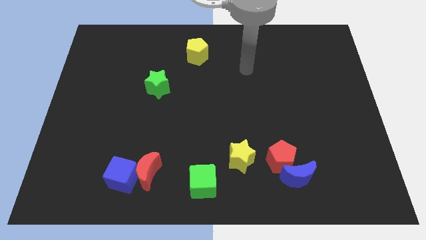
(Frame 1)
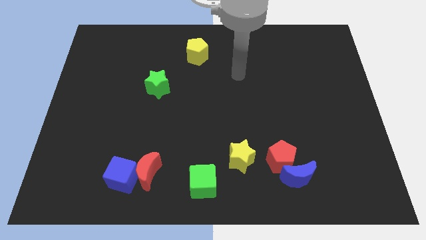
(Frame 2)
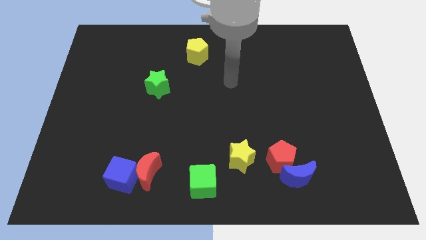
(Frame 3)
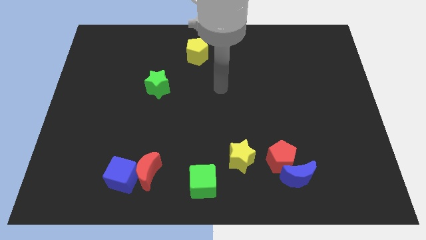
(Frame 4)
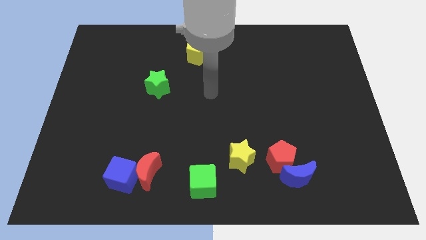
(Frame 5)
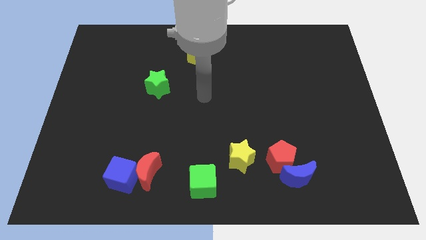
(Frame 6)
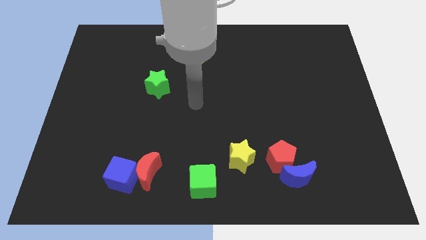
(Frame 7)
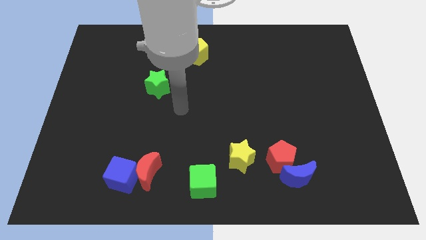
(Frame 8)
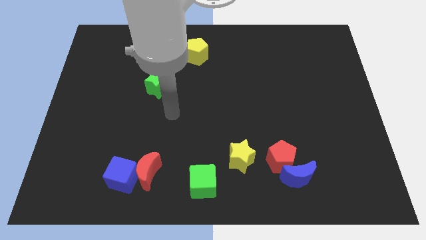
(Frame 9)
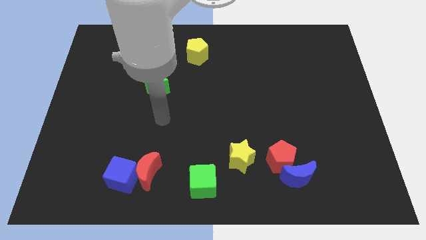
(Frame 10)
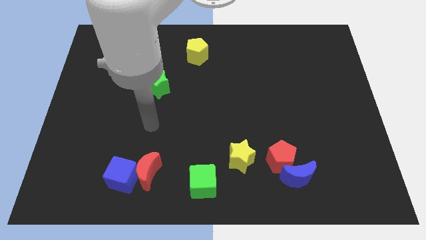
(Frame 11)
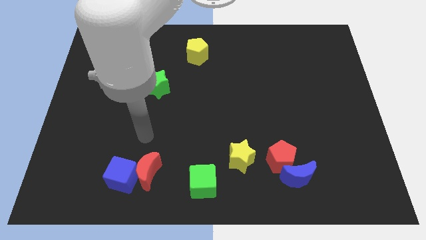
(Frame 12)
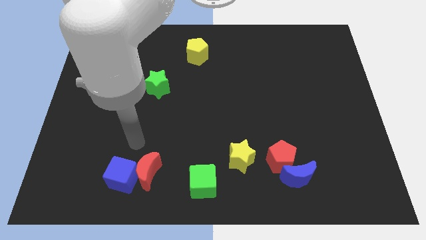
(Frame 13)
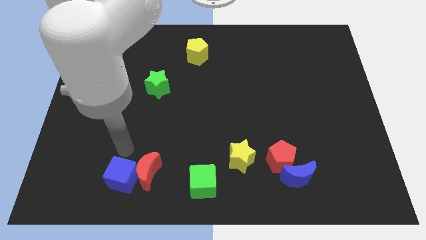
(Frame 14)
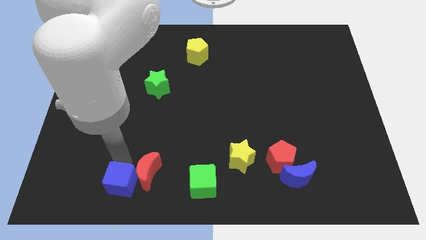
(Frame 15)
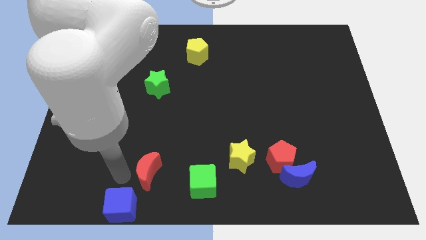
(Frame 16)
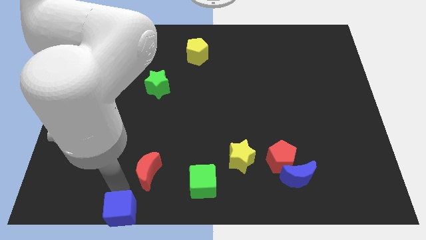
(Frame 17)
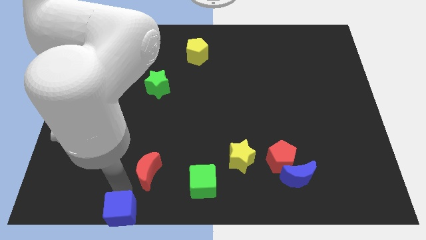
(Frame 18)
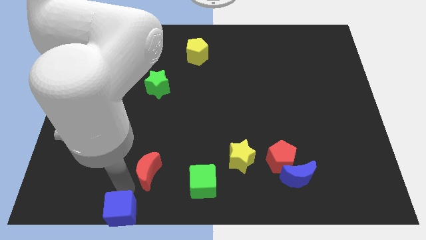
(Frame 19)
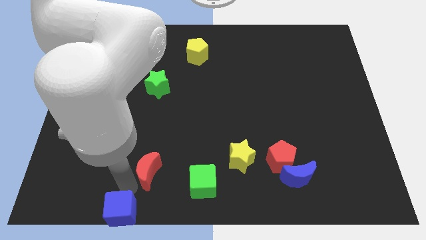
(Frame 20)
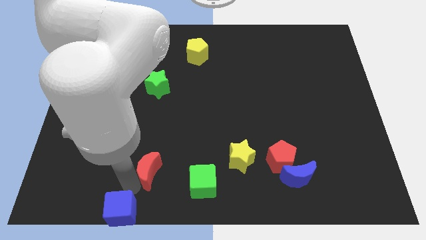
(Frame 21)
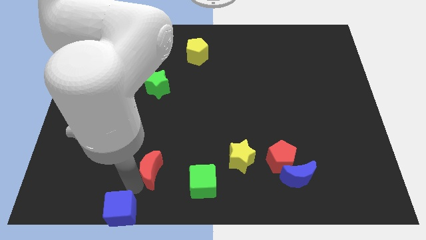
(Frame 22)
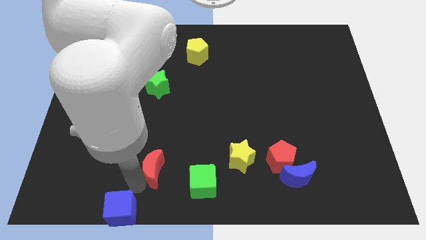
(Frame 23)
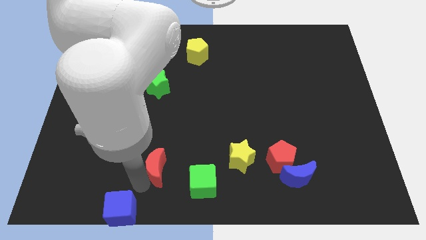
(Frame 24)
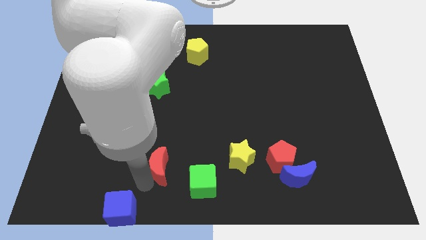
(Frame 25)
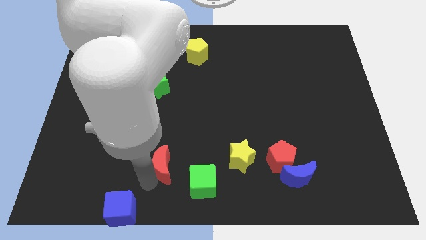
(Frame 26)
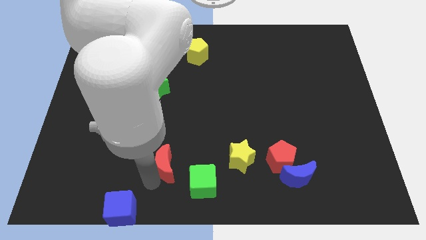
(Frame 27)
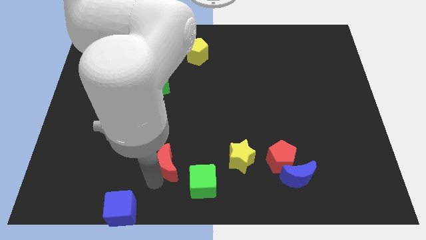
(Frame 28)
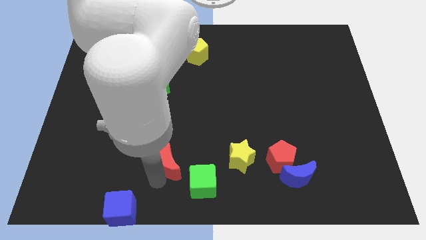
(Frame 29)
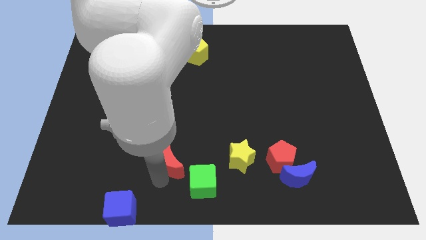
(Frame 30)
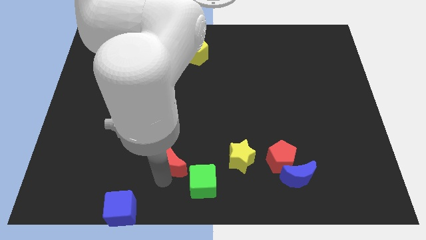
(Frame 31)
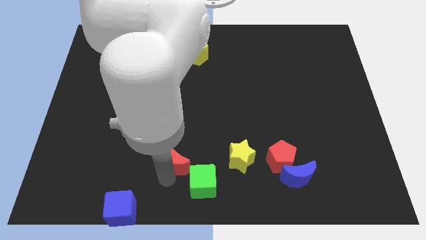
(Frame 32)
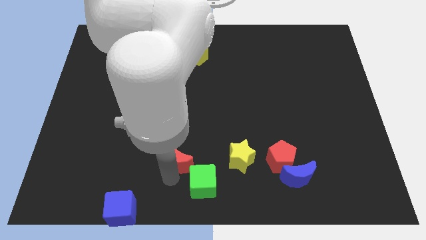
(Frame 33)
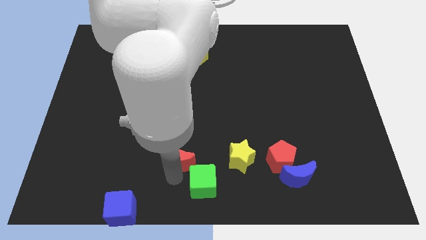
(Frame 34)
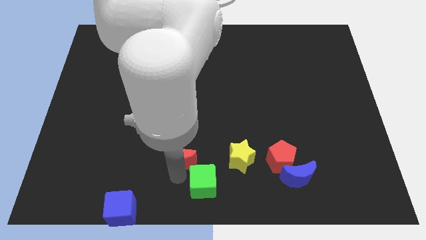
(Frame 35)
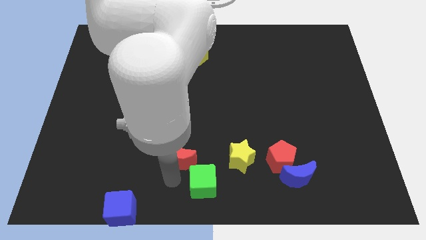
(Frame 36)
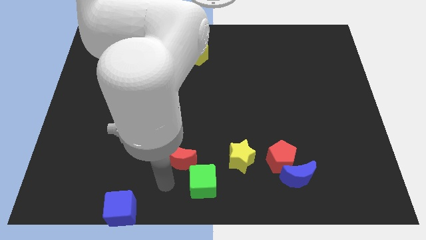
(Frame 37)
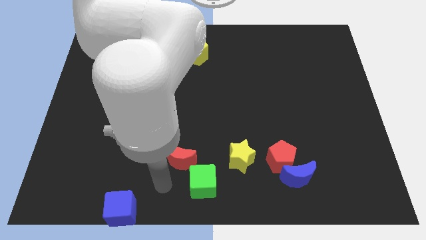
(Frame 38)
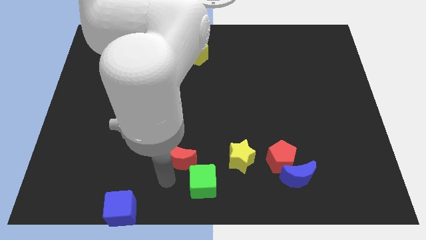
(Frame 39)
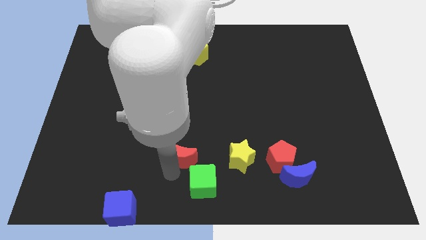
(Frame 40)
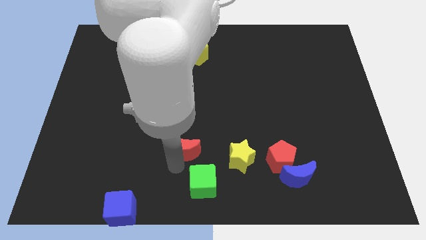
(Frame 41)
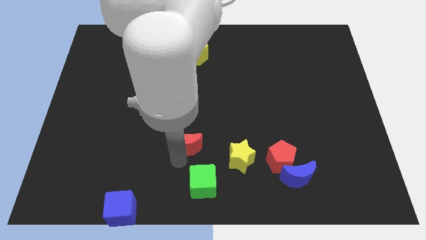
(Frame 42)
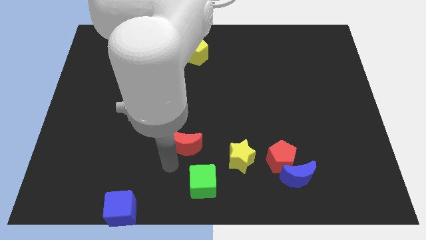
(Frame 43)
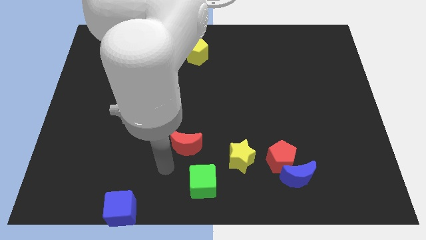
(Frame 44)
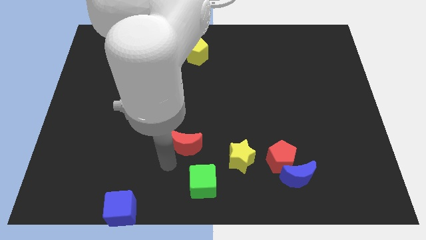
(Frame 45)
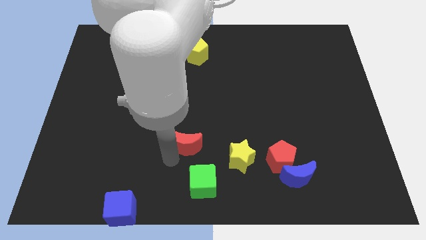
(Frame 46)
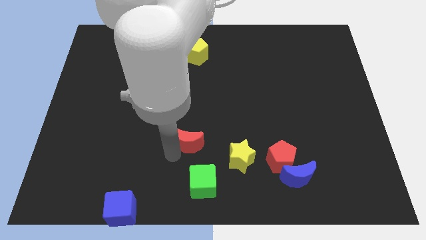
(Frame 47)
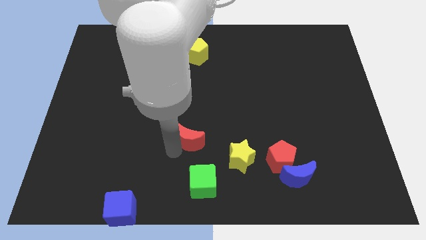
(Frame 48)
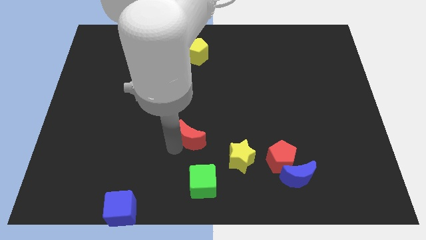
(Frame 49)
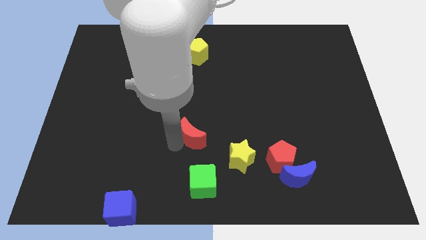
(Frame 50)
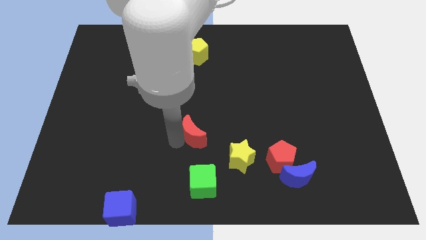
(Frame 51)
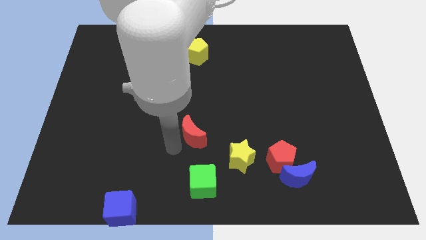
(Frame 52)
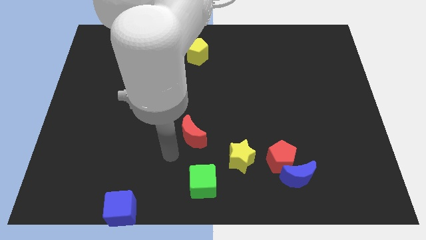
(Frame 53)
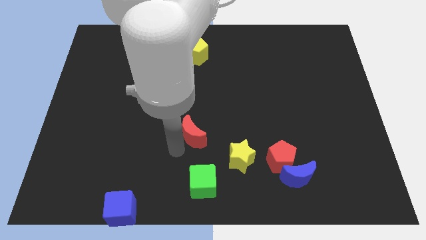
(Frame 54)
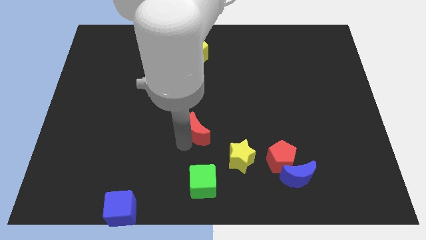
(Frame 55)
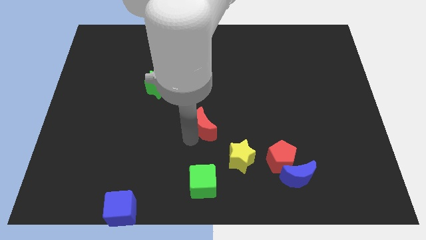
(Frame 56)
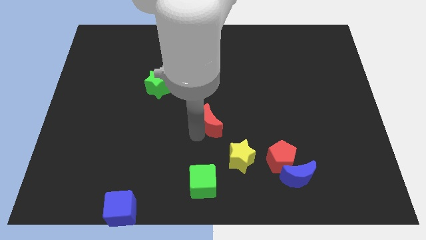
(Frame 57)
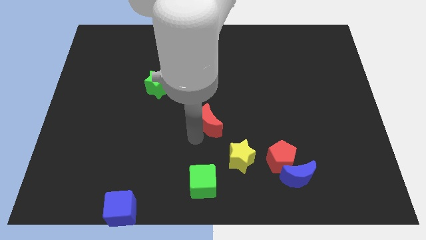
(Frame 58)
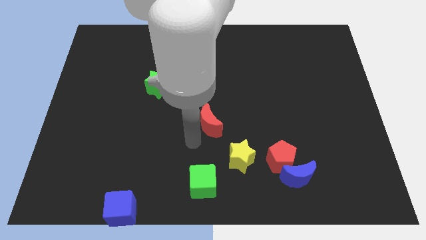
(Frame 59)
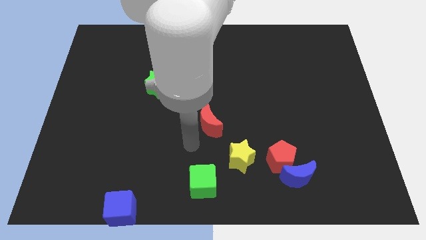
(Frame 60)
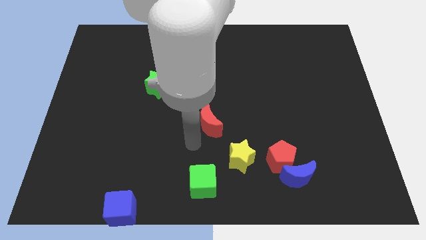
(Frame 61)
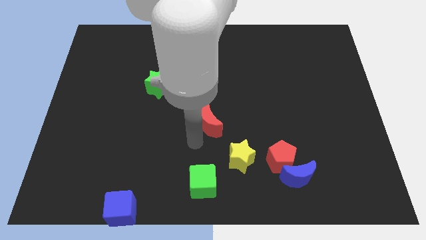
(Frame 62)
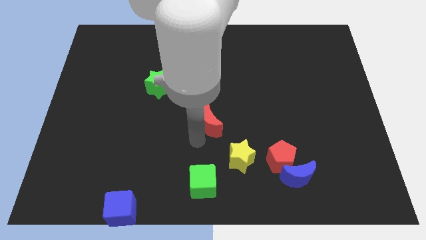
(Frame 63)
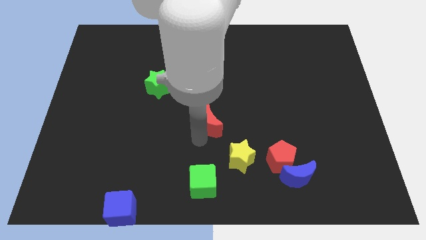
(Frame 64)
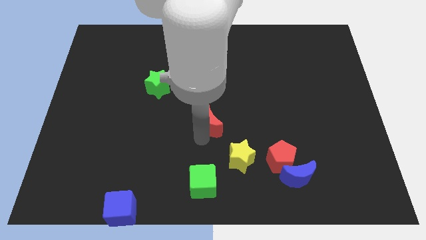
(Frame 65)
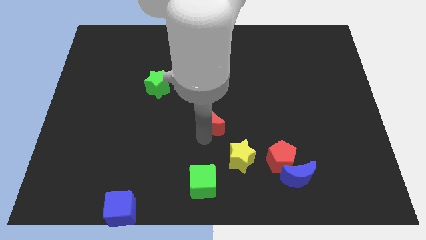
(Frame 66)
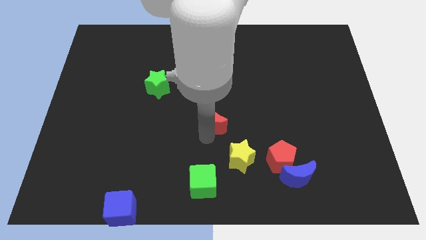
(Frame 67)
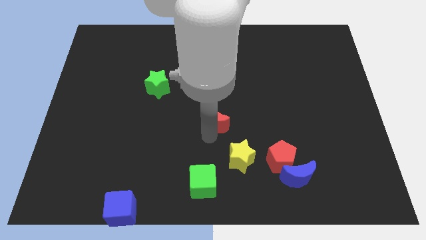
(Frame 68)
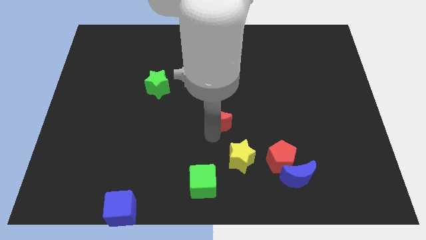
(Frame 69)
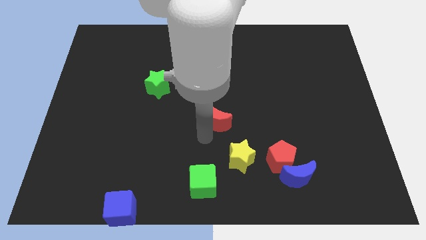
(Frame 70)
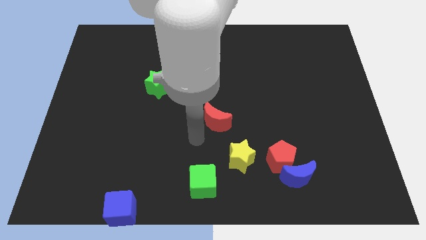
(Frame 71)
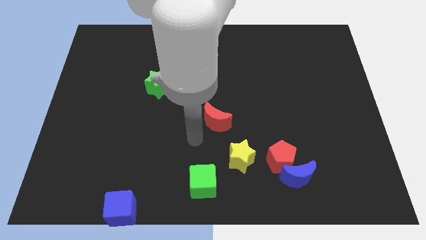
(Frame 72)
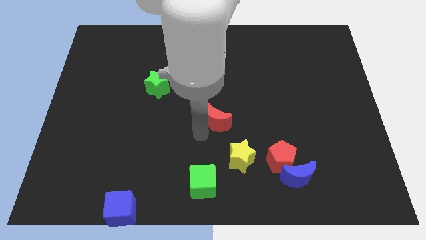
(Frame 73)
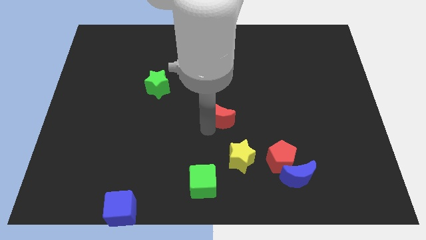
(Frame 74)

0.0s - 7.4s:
move the red moon up and right

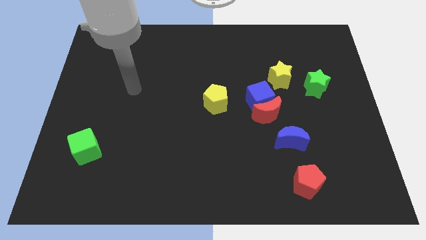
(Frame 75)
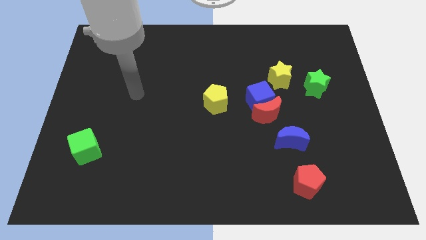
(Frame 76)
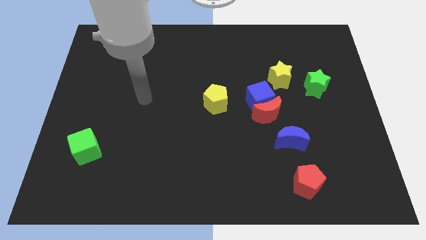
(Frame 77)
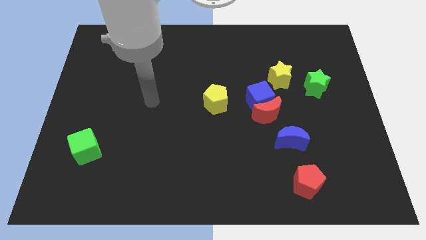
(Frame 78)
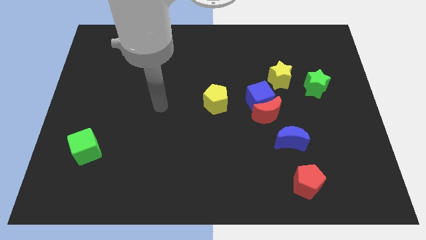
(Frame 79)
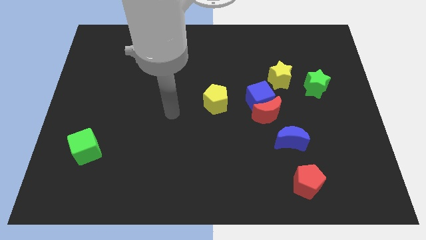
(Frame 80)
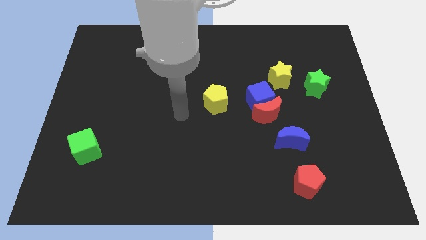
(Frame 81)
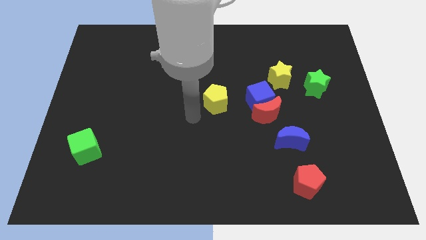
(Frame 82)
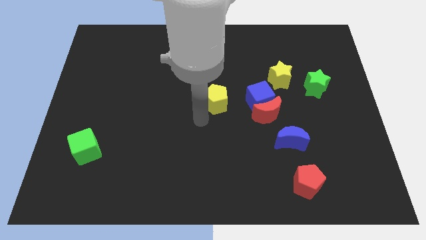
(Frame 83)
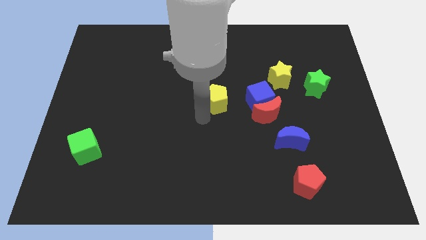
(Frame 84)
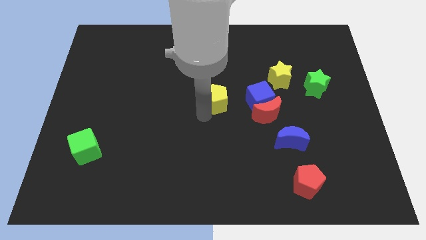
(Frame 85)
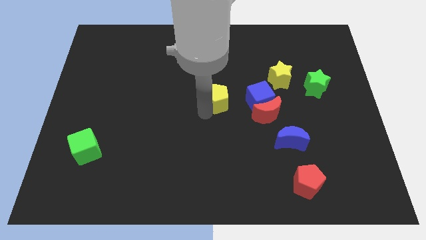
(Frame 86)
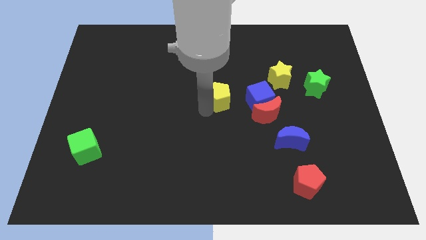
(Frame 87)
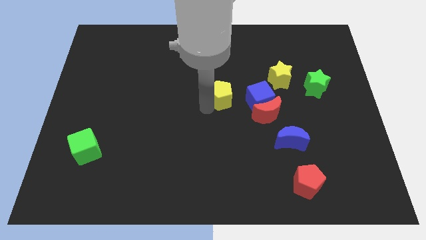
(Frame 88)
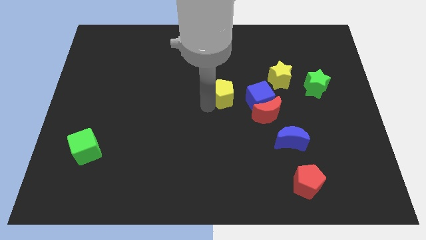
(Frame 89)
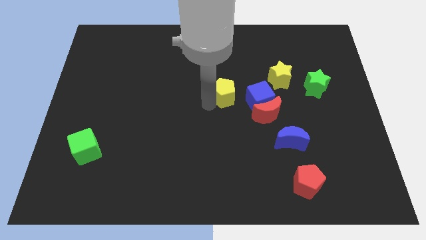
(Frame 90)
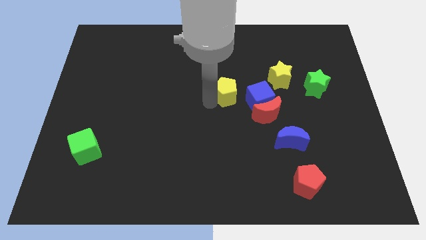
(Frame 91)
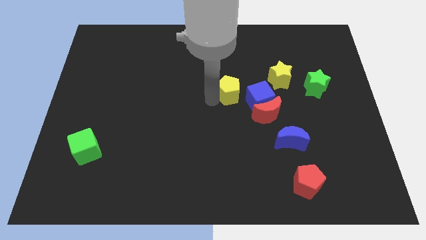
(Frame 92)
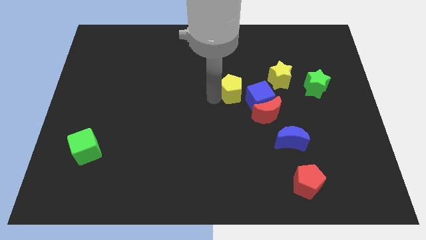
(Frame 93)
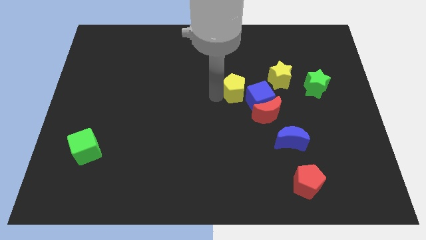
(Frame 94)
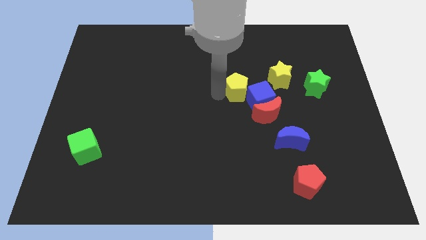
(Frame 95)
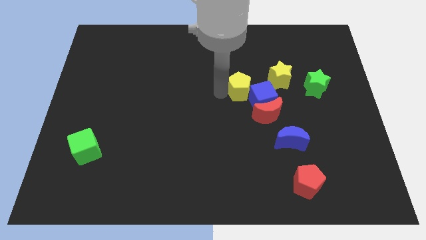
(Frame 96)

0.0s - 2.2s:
slightly move the yellow pentagon upwards and to the right diagonally
